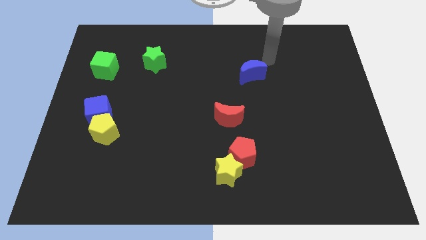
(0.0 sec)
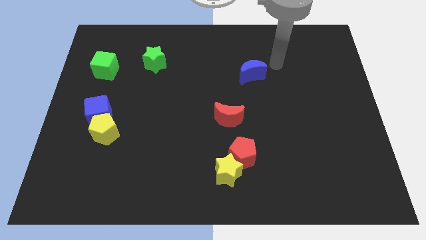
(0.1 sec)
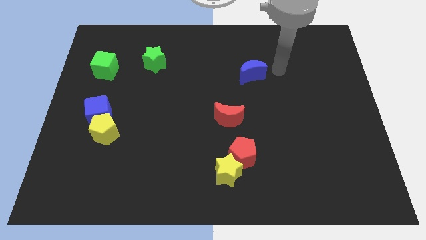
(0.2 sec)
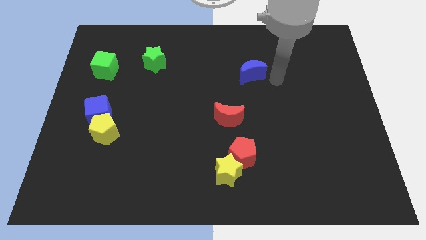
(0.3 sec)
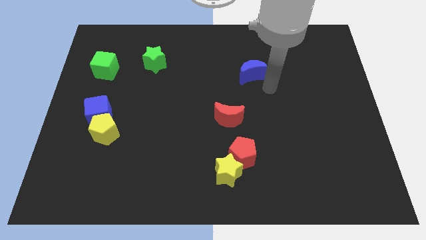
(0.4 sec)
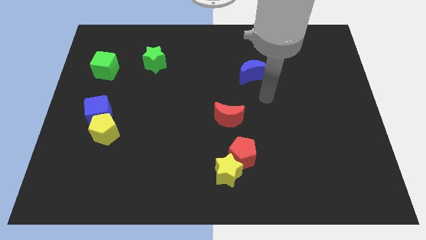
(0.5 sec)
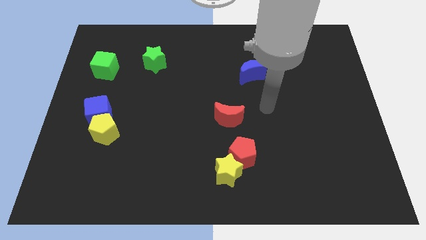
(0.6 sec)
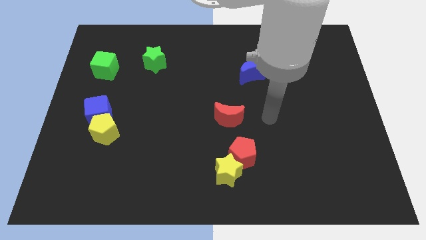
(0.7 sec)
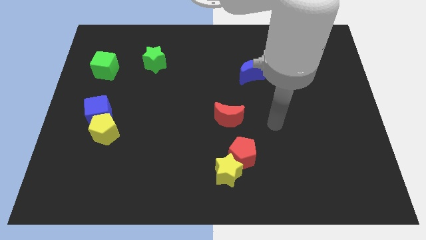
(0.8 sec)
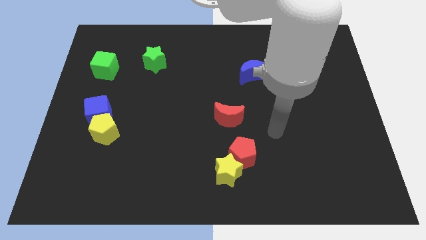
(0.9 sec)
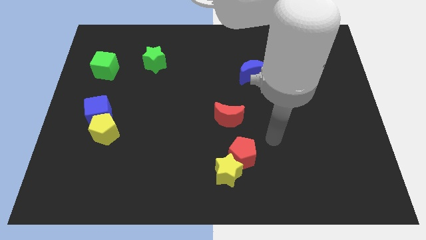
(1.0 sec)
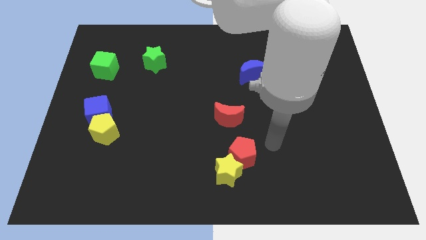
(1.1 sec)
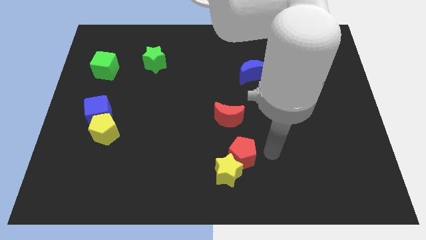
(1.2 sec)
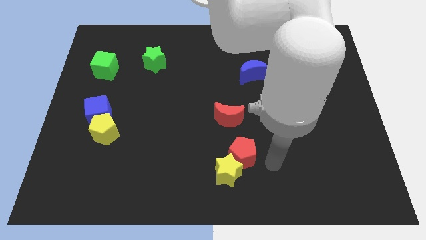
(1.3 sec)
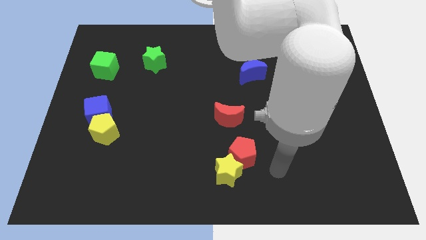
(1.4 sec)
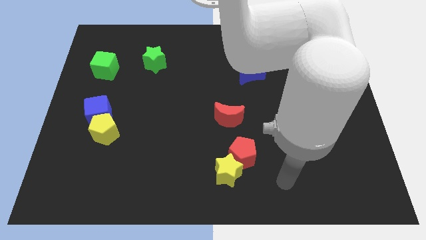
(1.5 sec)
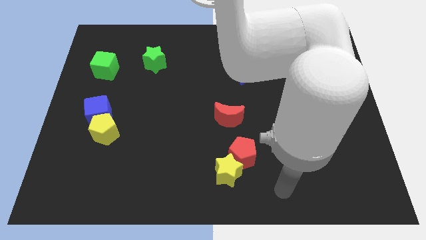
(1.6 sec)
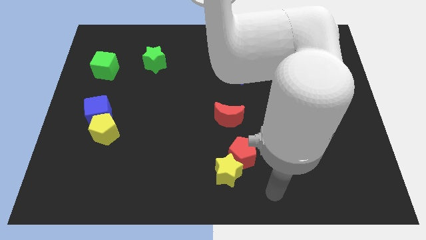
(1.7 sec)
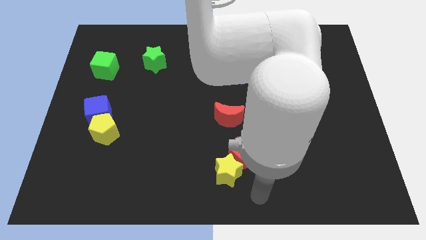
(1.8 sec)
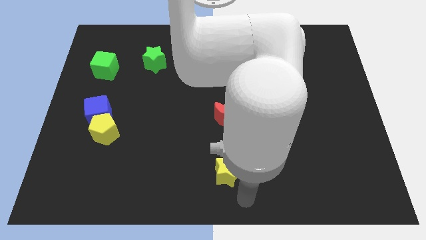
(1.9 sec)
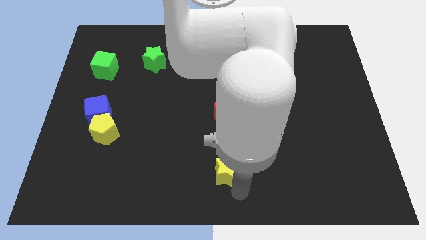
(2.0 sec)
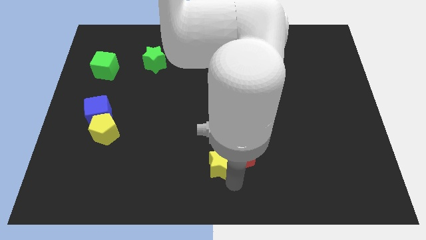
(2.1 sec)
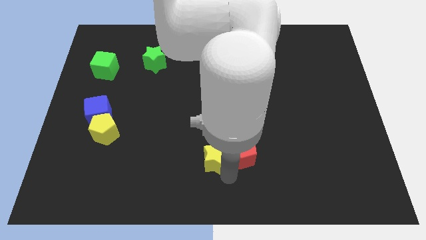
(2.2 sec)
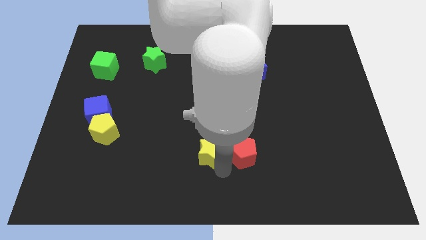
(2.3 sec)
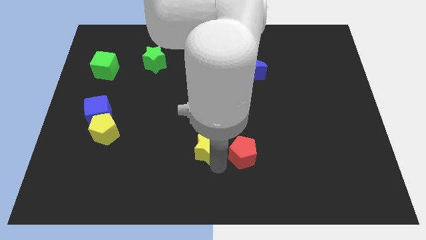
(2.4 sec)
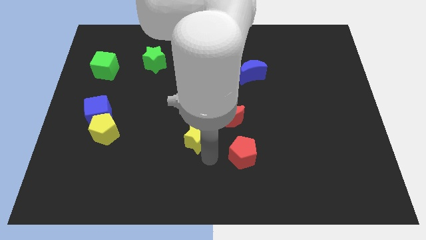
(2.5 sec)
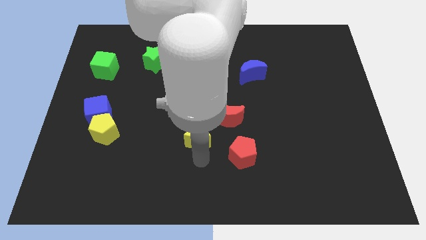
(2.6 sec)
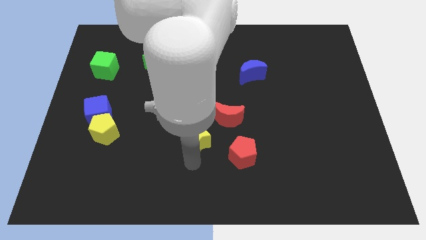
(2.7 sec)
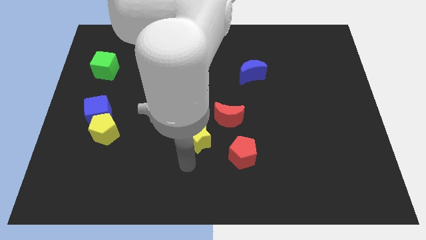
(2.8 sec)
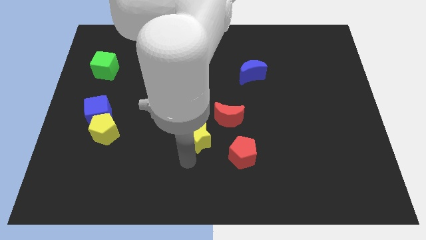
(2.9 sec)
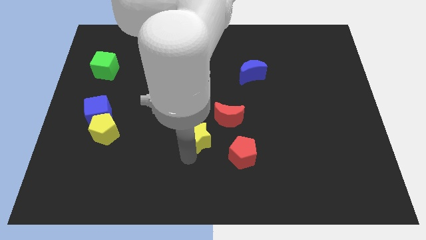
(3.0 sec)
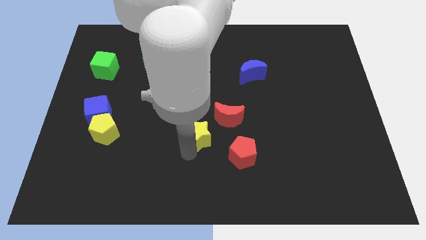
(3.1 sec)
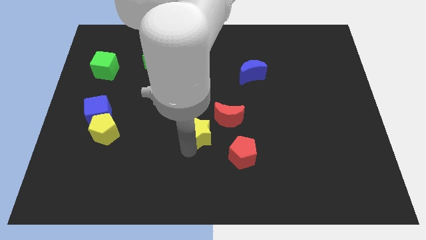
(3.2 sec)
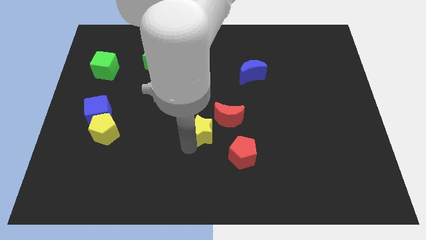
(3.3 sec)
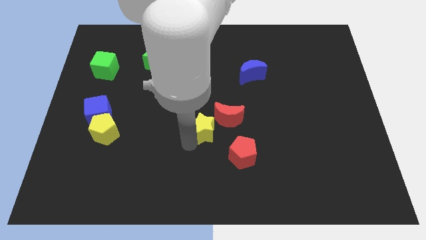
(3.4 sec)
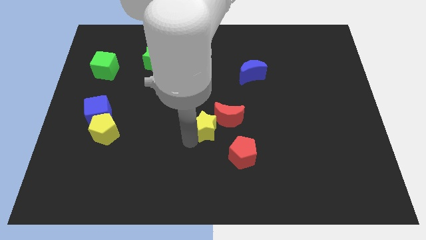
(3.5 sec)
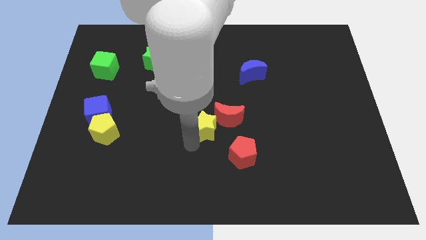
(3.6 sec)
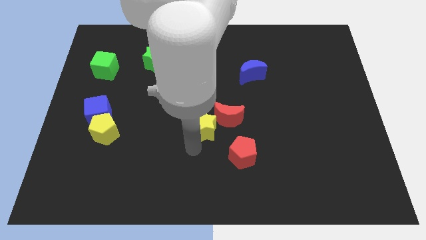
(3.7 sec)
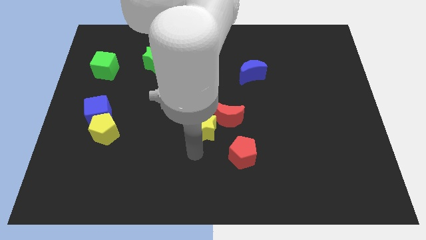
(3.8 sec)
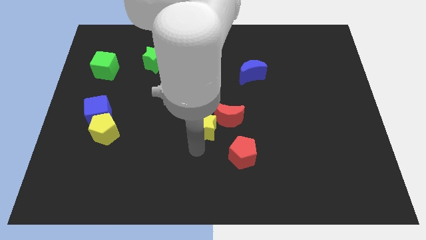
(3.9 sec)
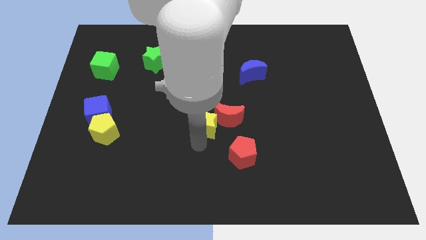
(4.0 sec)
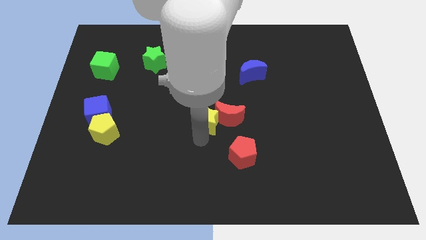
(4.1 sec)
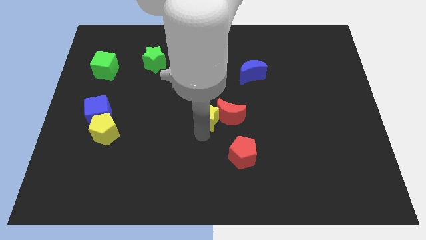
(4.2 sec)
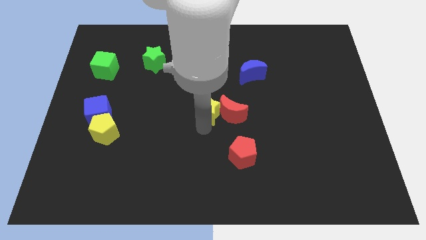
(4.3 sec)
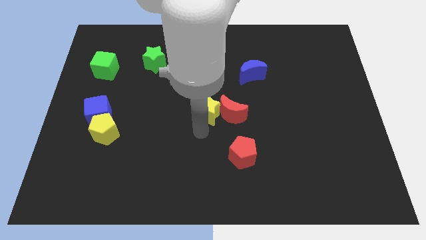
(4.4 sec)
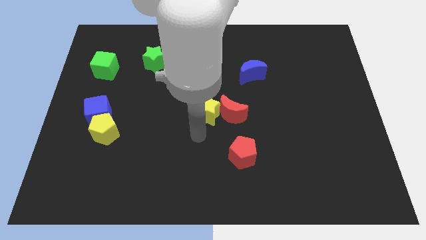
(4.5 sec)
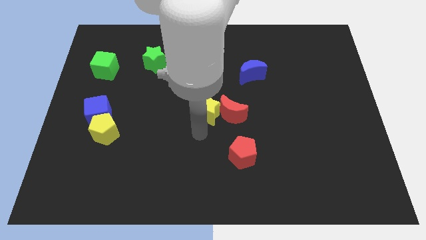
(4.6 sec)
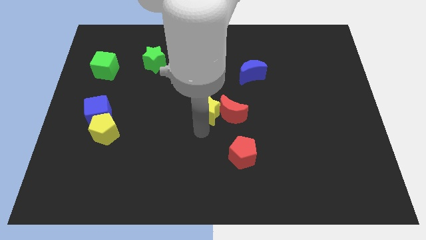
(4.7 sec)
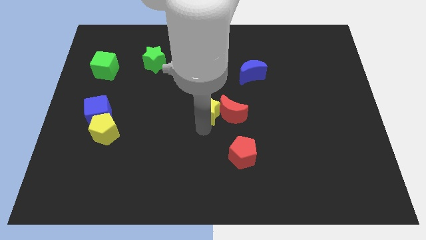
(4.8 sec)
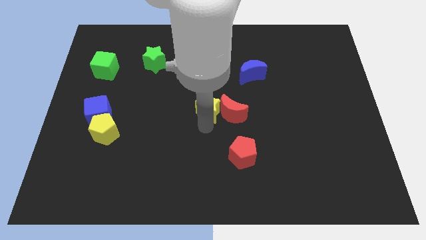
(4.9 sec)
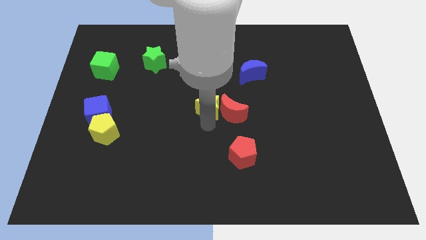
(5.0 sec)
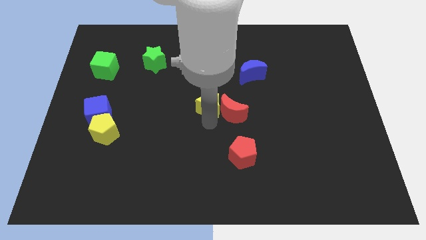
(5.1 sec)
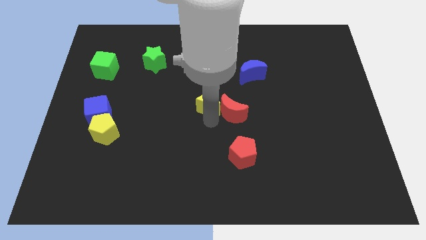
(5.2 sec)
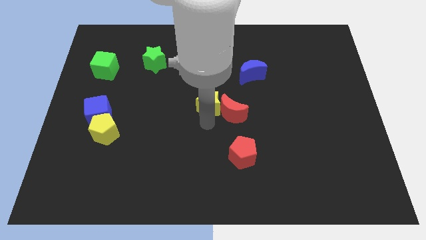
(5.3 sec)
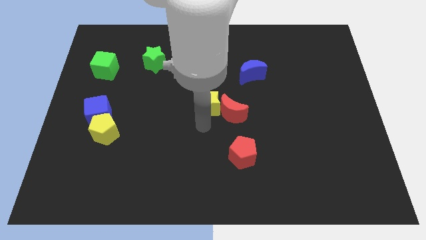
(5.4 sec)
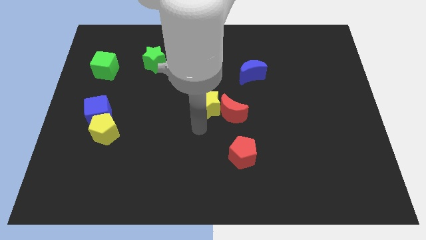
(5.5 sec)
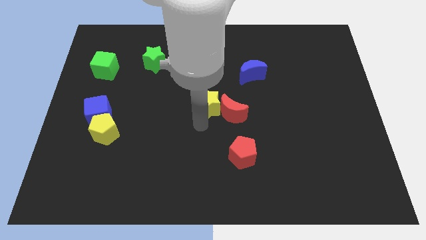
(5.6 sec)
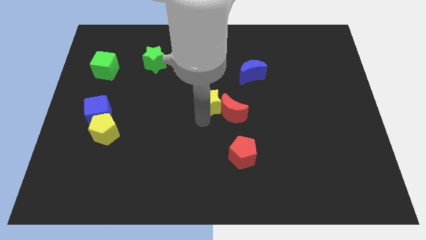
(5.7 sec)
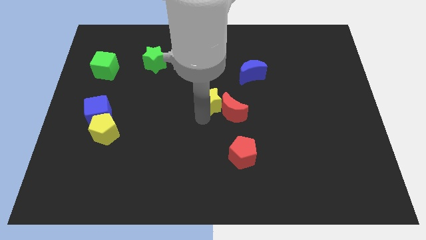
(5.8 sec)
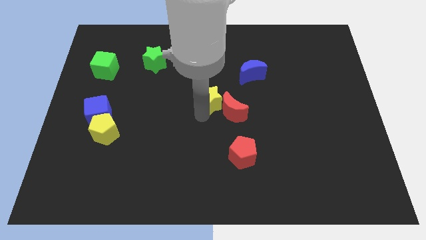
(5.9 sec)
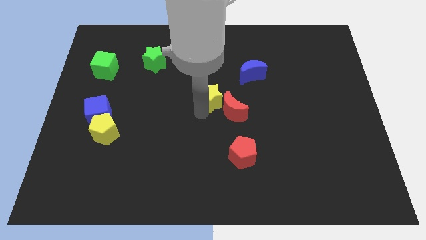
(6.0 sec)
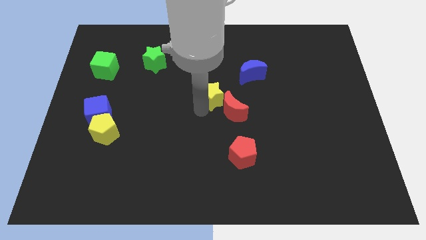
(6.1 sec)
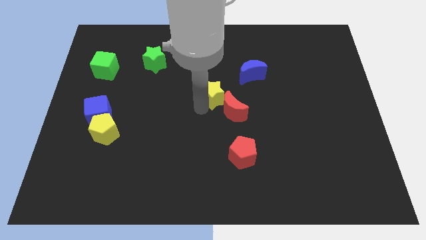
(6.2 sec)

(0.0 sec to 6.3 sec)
push the yellow star up

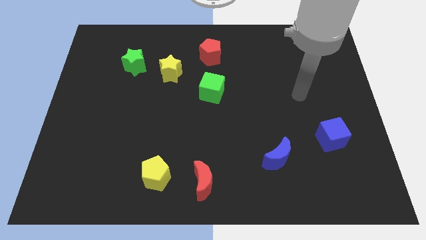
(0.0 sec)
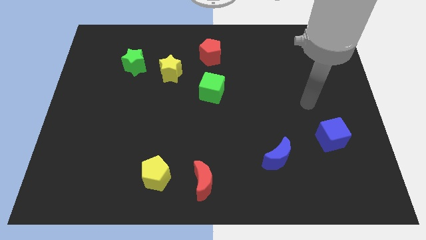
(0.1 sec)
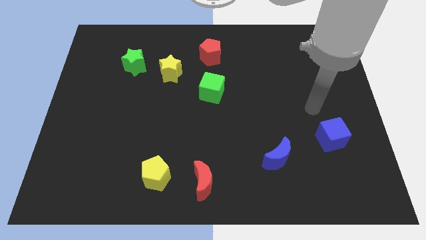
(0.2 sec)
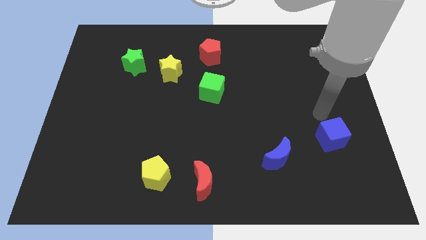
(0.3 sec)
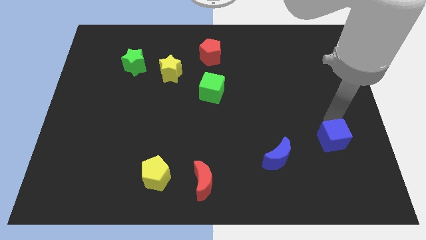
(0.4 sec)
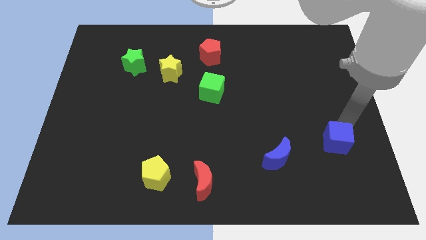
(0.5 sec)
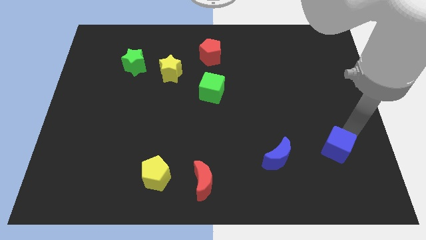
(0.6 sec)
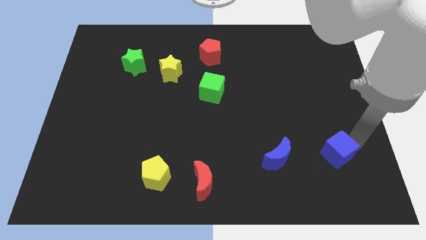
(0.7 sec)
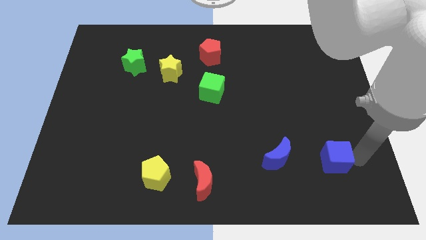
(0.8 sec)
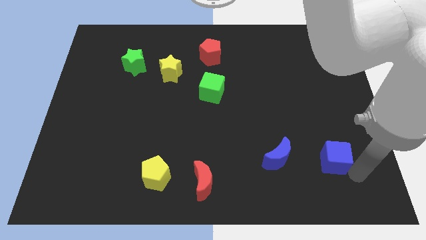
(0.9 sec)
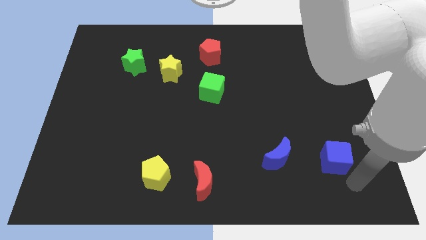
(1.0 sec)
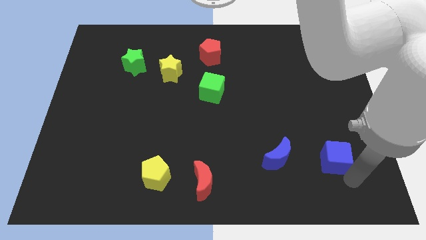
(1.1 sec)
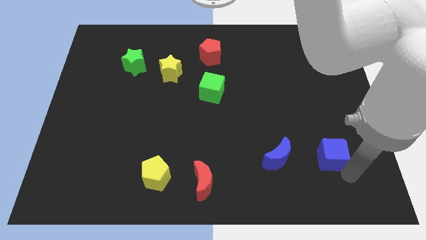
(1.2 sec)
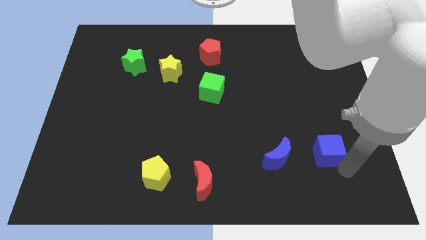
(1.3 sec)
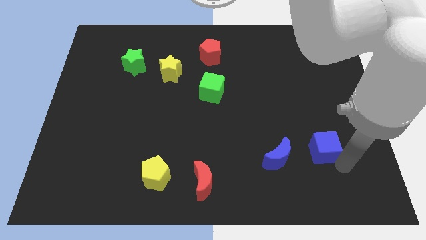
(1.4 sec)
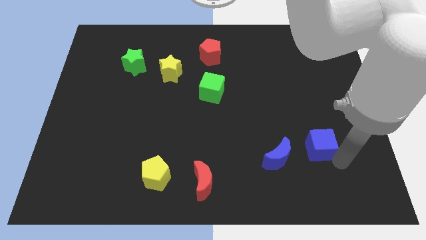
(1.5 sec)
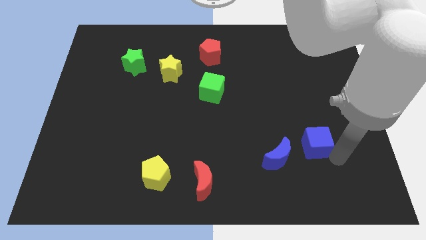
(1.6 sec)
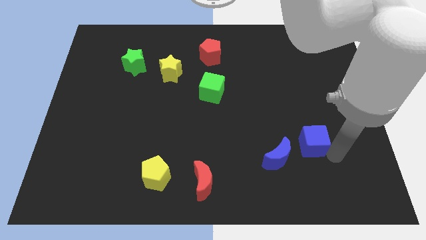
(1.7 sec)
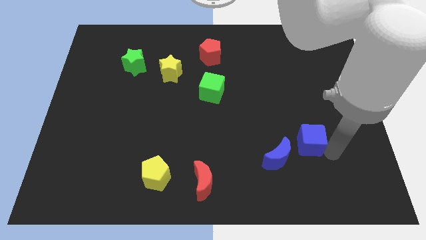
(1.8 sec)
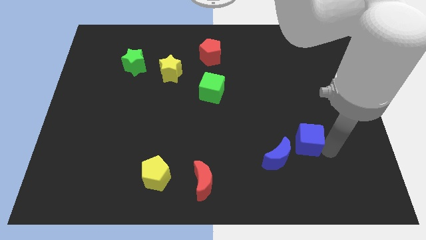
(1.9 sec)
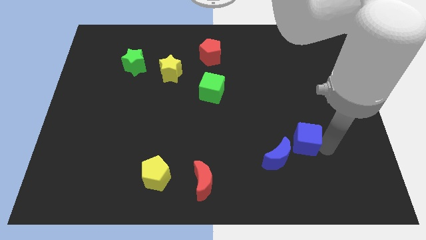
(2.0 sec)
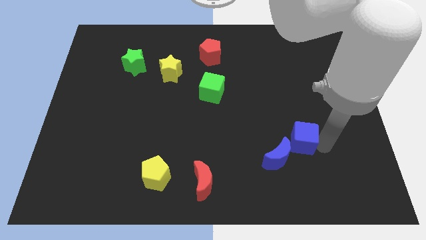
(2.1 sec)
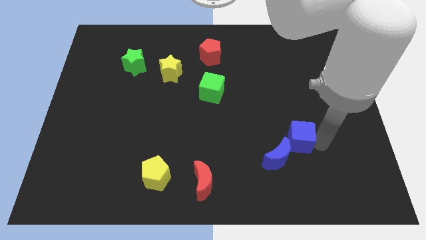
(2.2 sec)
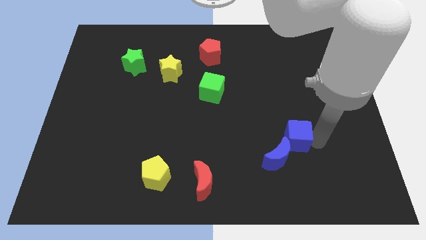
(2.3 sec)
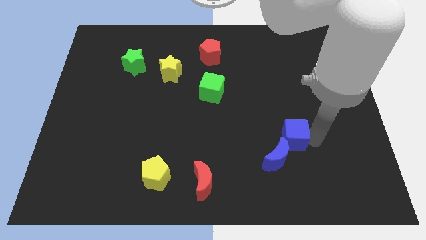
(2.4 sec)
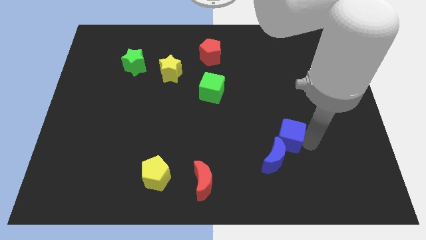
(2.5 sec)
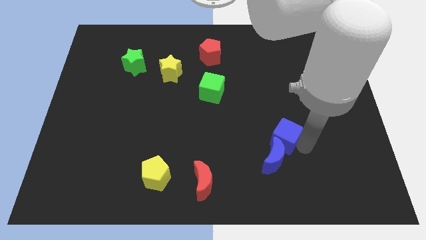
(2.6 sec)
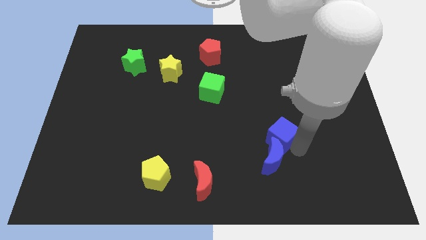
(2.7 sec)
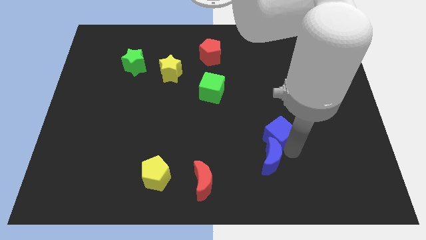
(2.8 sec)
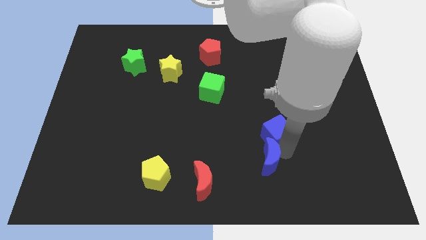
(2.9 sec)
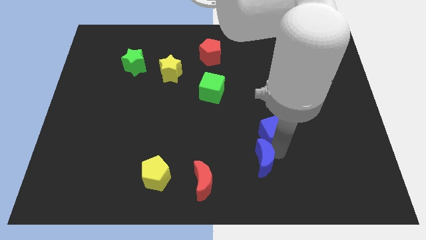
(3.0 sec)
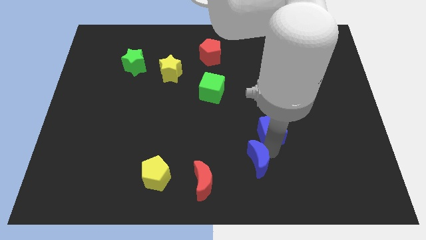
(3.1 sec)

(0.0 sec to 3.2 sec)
slide the blue cube up and left slightly
